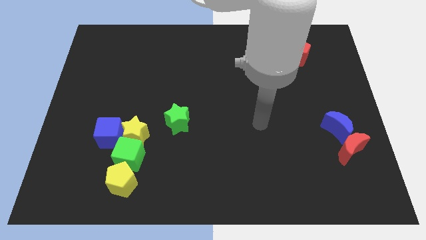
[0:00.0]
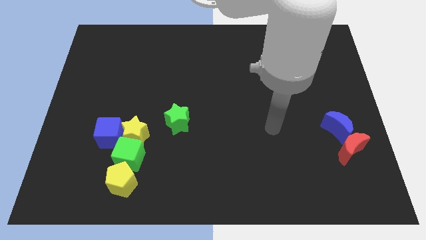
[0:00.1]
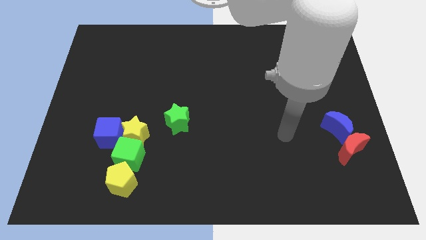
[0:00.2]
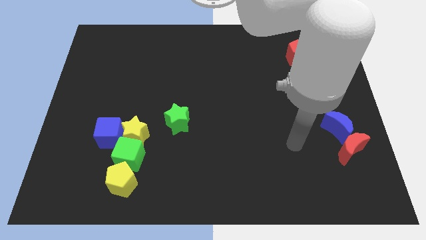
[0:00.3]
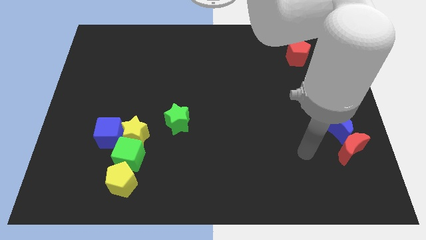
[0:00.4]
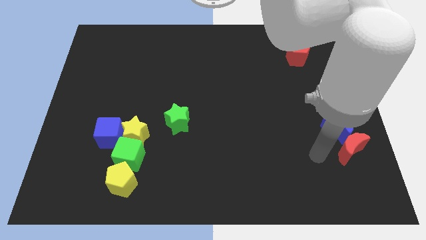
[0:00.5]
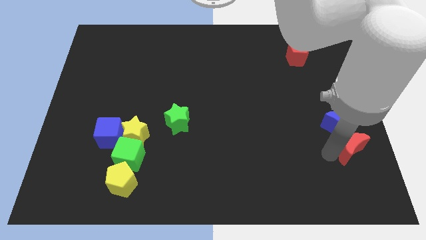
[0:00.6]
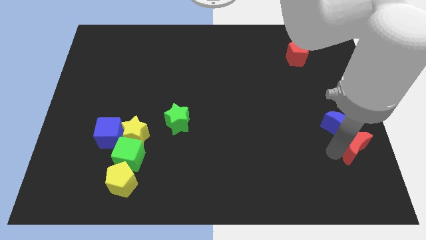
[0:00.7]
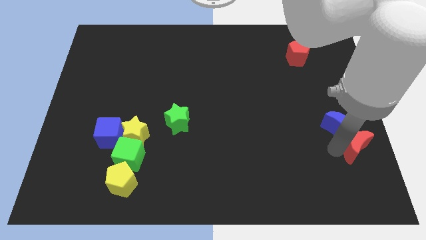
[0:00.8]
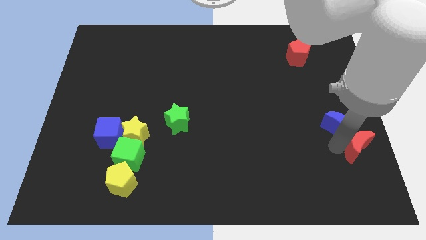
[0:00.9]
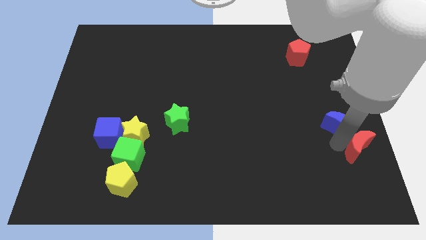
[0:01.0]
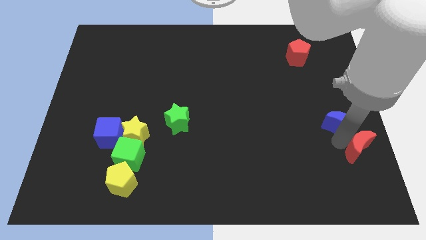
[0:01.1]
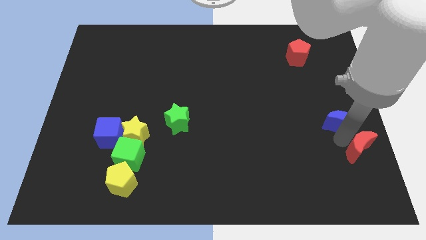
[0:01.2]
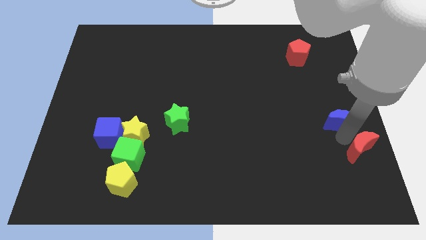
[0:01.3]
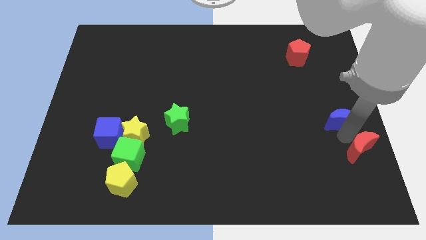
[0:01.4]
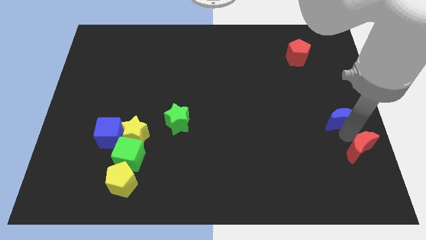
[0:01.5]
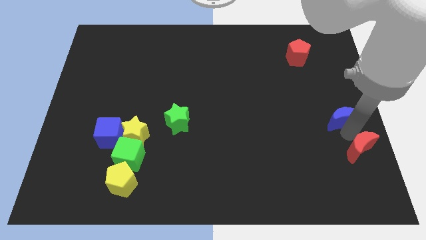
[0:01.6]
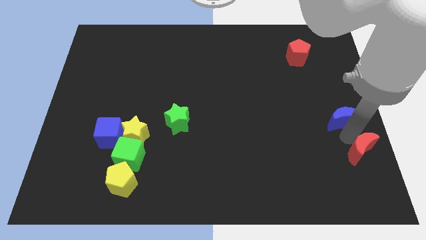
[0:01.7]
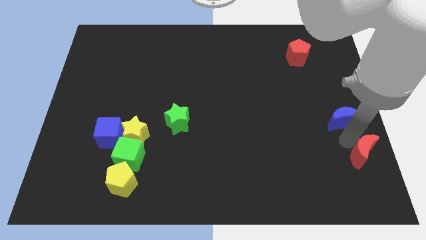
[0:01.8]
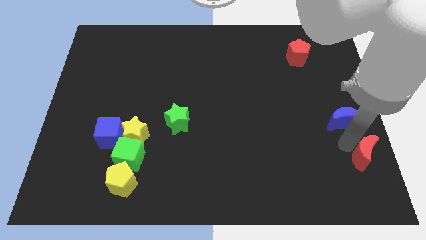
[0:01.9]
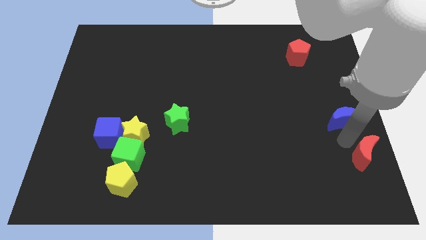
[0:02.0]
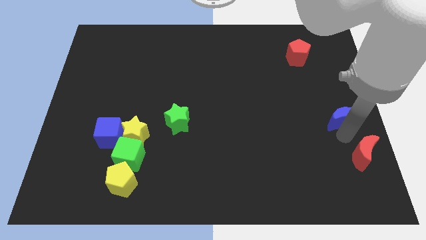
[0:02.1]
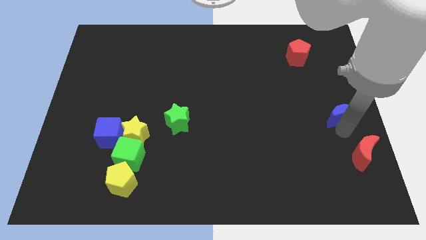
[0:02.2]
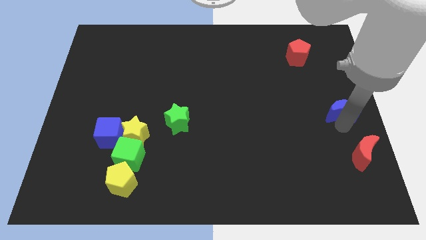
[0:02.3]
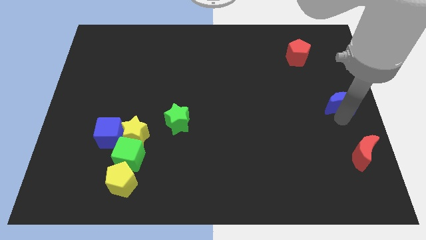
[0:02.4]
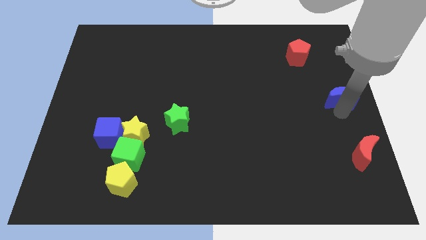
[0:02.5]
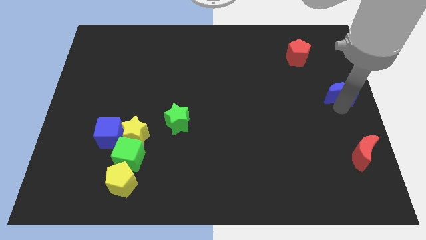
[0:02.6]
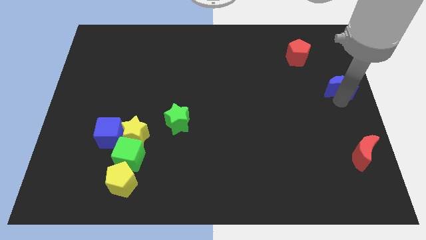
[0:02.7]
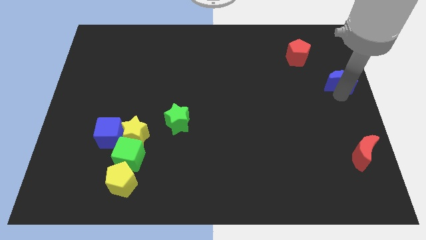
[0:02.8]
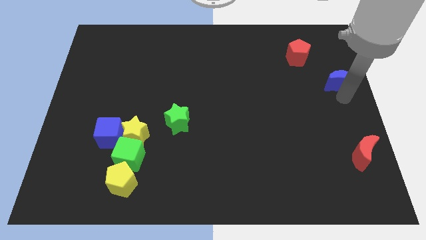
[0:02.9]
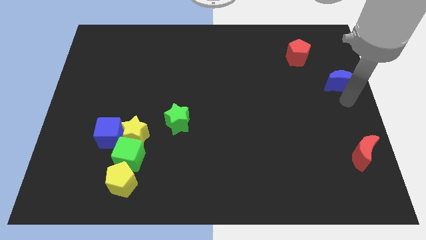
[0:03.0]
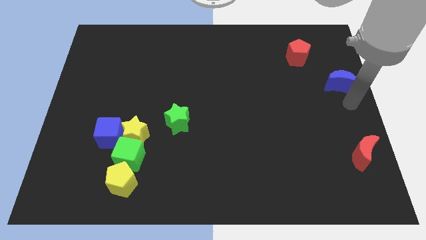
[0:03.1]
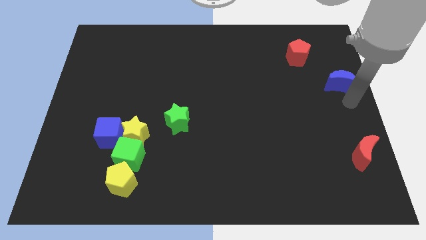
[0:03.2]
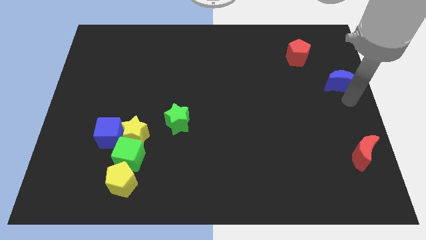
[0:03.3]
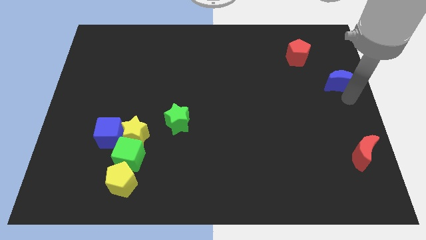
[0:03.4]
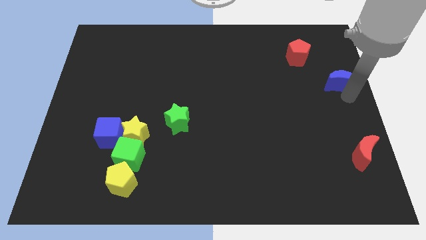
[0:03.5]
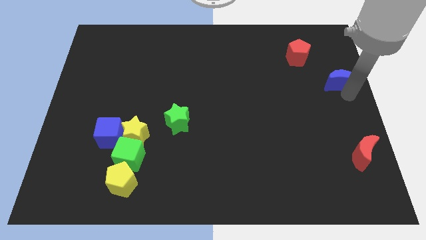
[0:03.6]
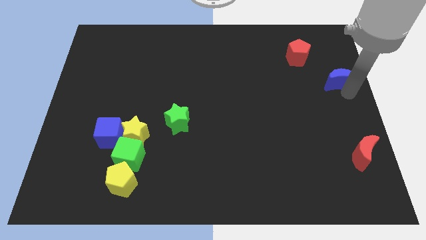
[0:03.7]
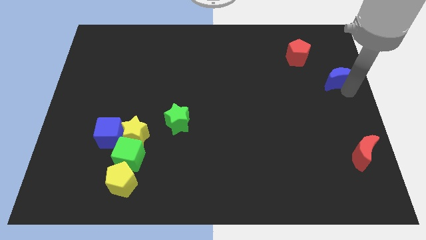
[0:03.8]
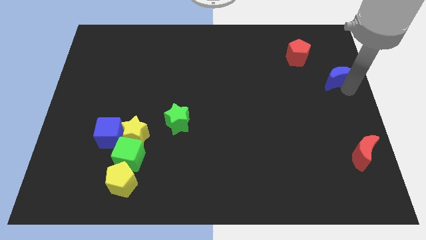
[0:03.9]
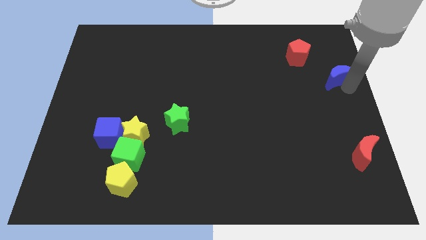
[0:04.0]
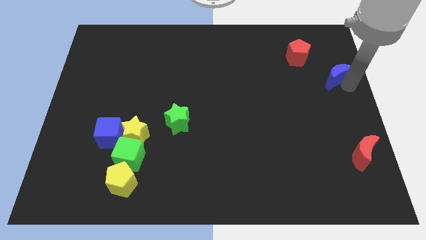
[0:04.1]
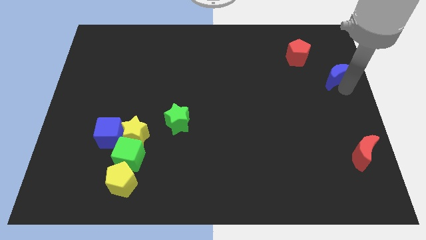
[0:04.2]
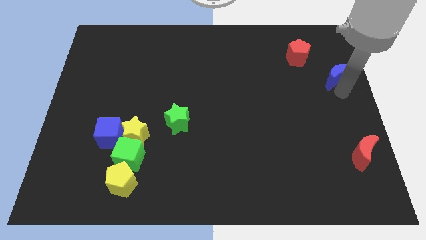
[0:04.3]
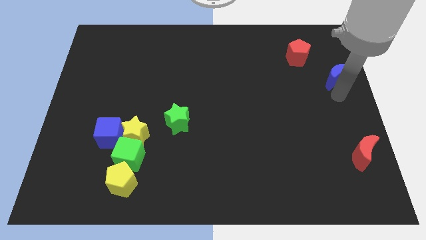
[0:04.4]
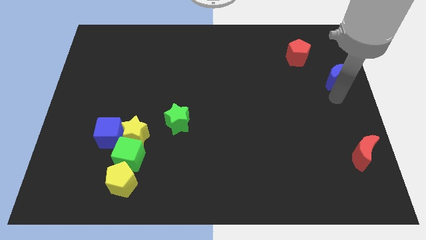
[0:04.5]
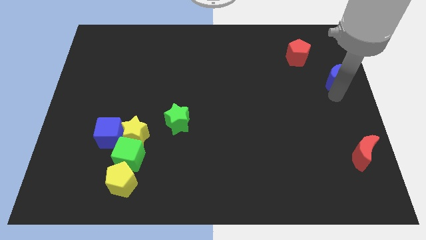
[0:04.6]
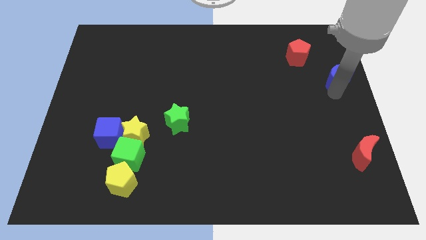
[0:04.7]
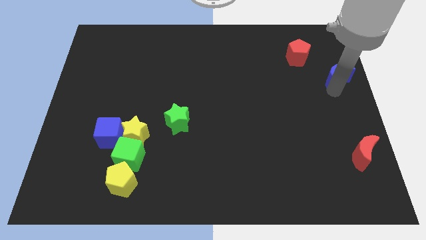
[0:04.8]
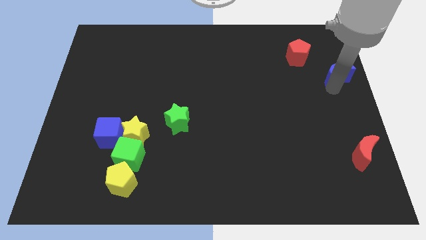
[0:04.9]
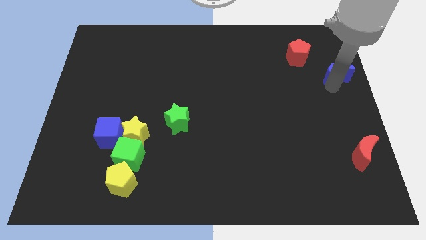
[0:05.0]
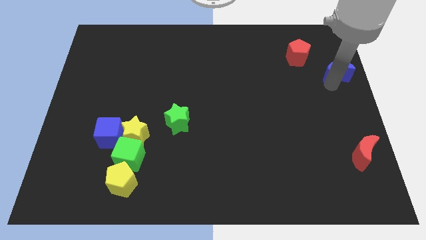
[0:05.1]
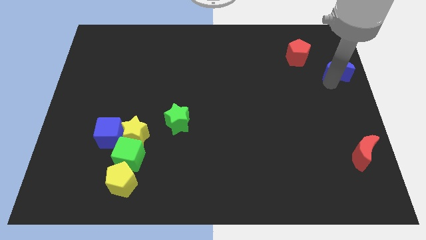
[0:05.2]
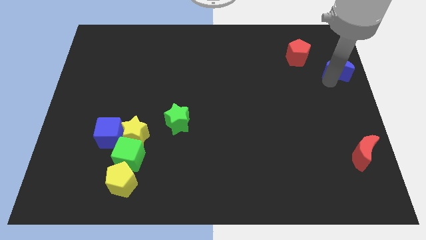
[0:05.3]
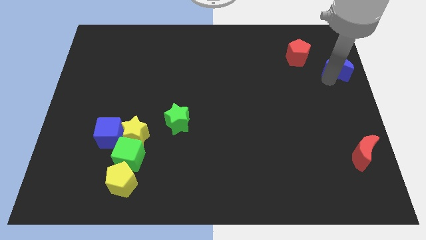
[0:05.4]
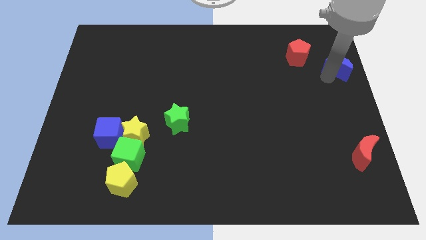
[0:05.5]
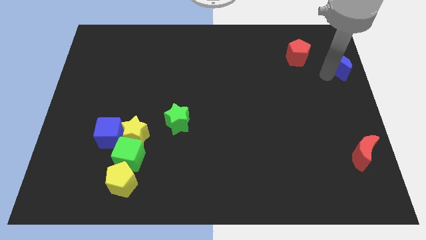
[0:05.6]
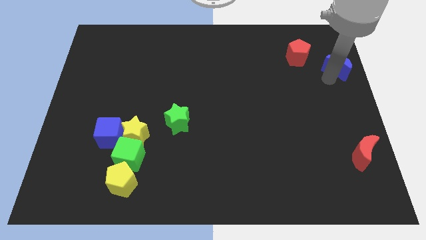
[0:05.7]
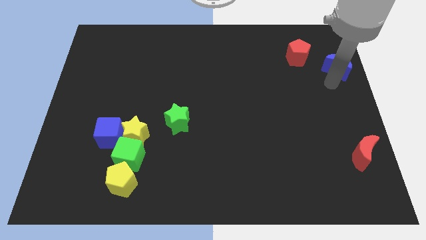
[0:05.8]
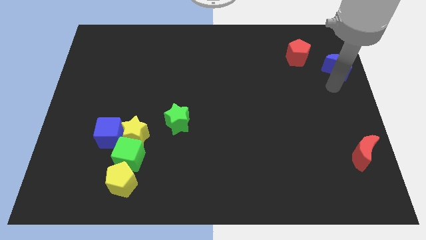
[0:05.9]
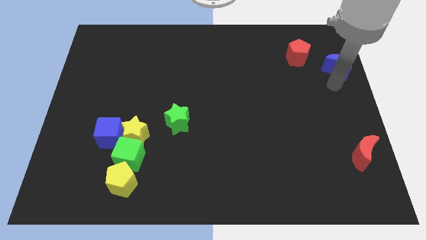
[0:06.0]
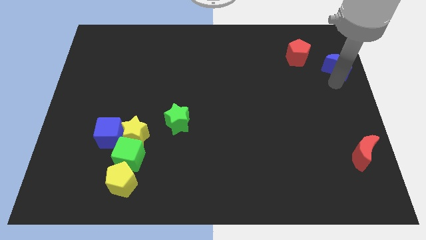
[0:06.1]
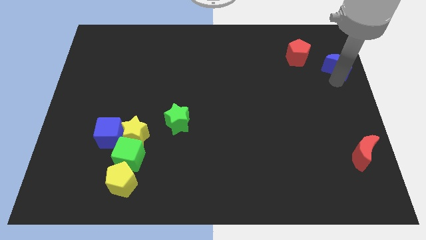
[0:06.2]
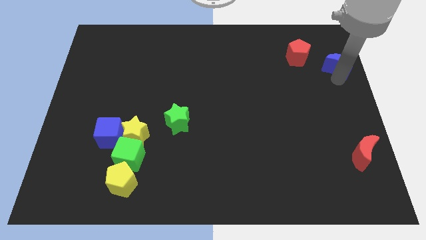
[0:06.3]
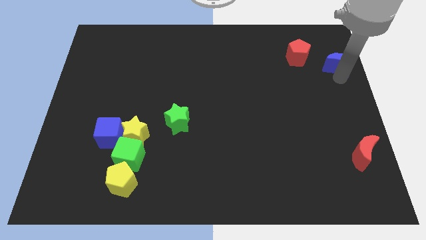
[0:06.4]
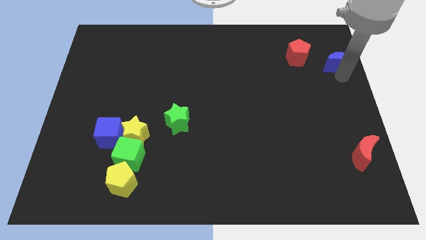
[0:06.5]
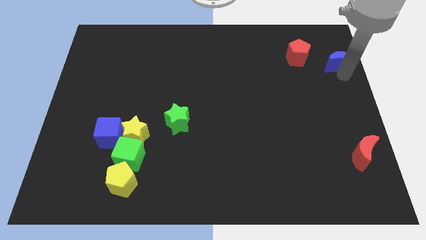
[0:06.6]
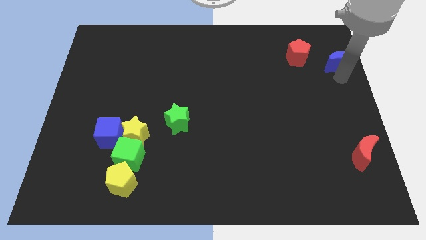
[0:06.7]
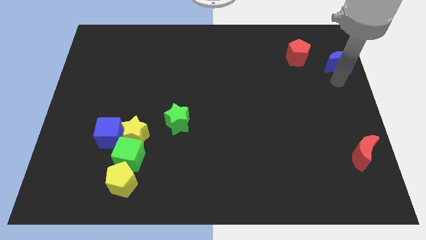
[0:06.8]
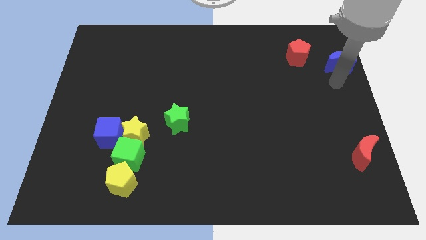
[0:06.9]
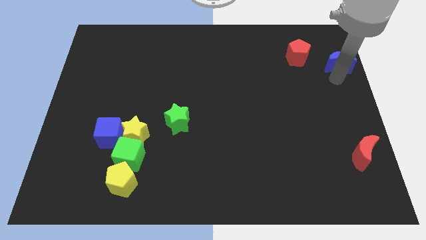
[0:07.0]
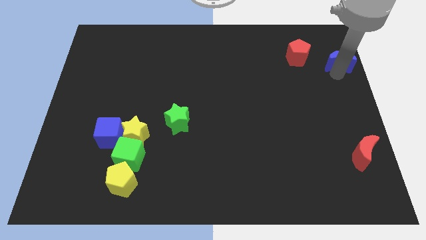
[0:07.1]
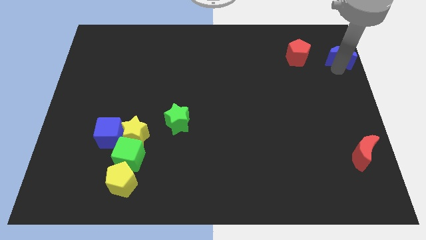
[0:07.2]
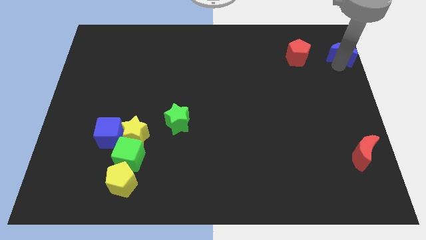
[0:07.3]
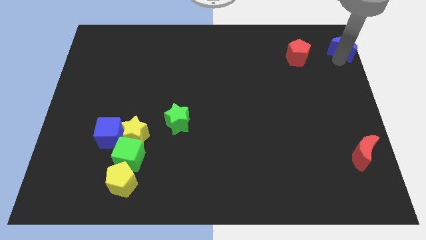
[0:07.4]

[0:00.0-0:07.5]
move the blue moon to the top right of the board
